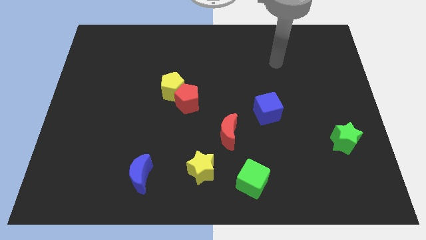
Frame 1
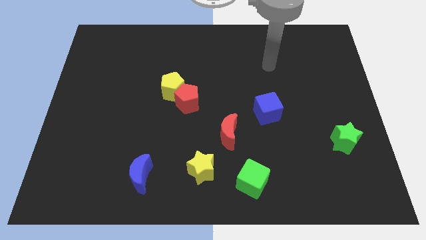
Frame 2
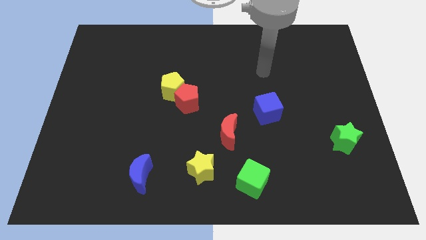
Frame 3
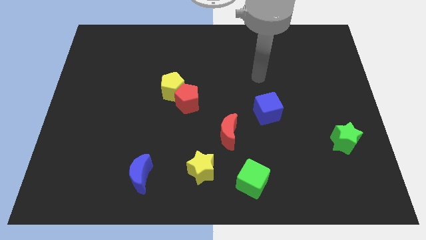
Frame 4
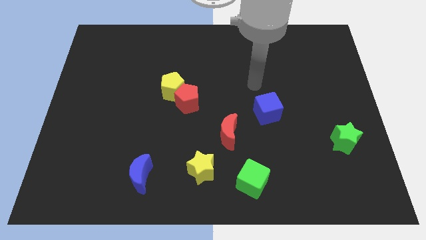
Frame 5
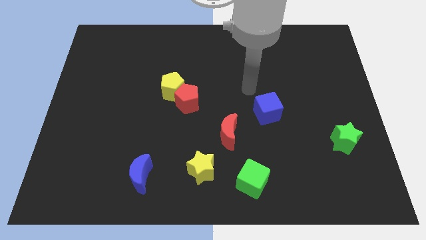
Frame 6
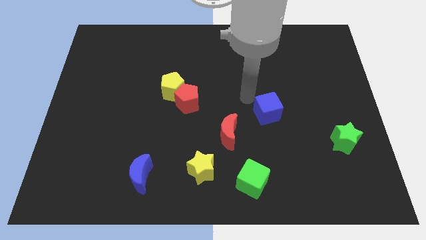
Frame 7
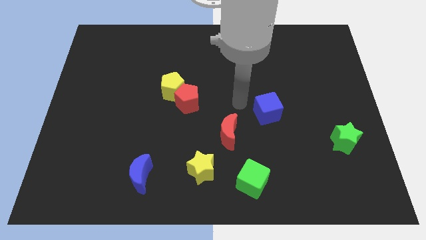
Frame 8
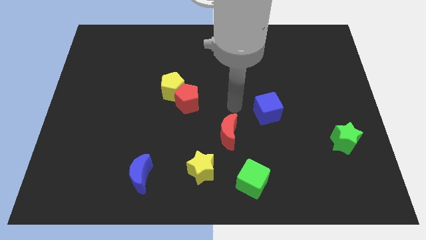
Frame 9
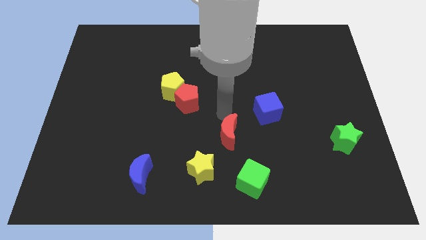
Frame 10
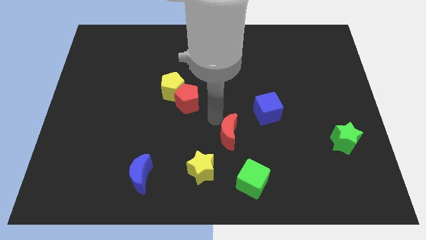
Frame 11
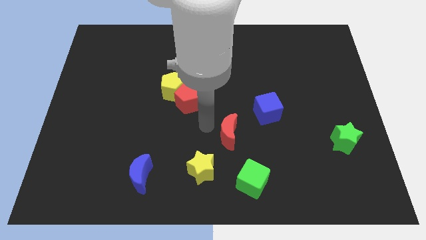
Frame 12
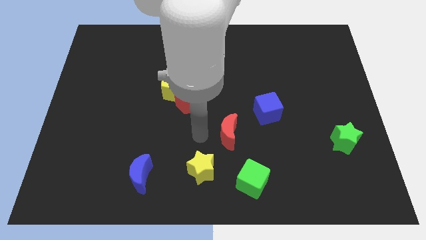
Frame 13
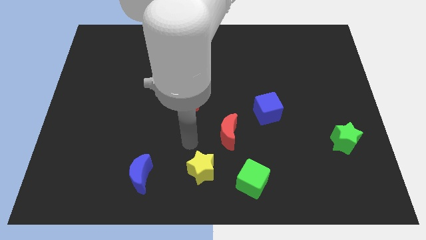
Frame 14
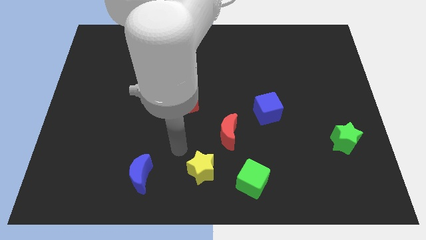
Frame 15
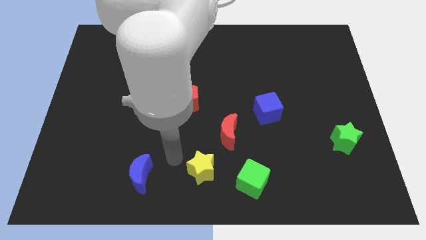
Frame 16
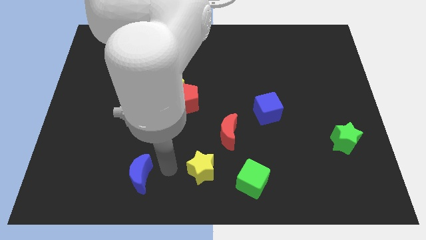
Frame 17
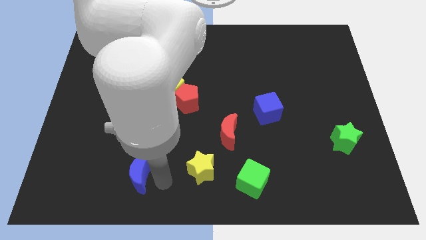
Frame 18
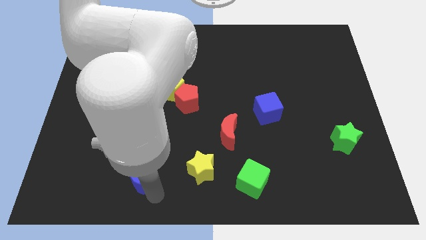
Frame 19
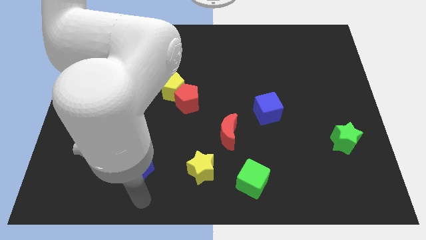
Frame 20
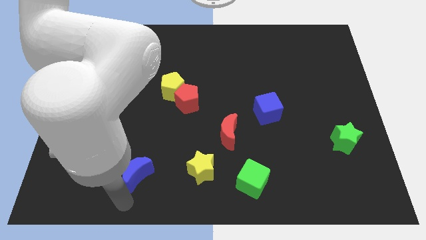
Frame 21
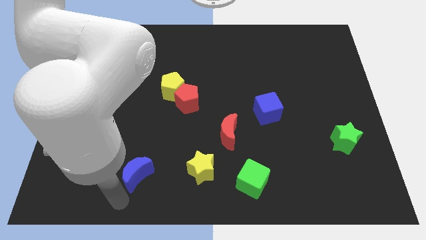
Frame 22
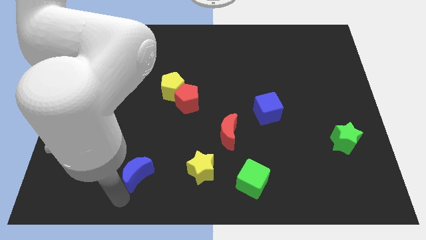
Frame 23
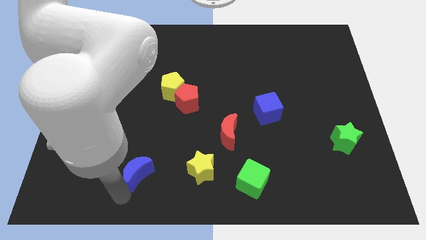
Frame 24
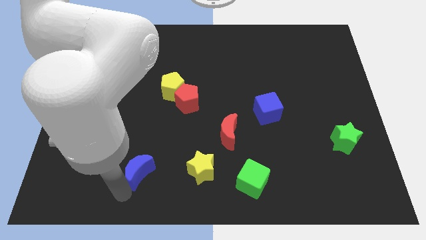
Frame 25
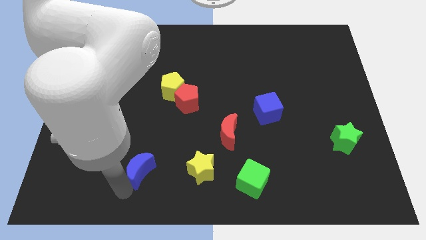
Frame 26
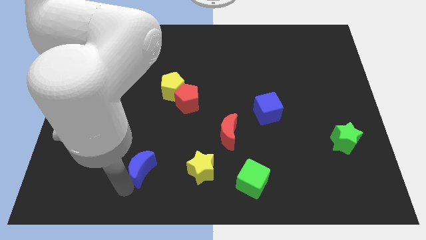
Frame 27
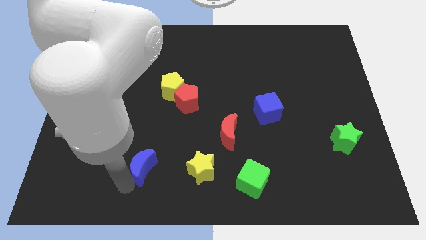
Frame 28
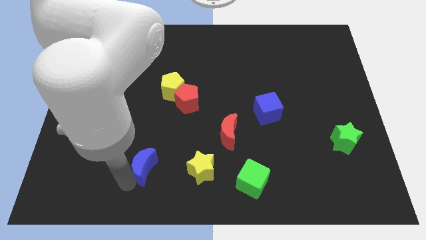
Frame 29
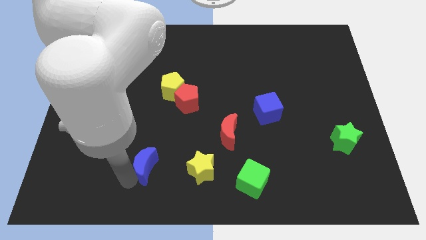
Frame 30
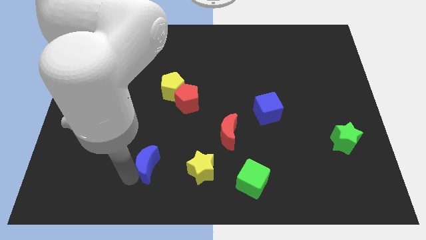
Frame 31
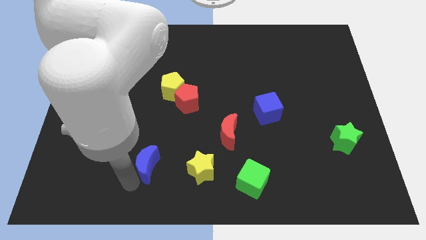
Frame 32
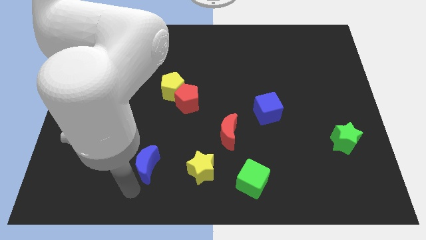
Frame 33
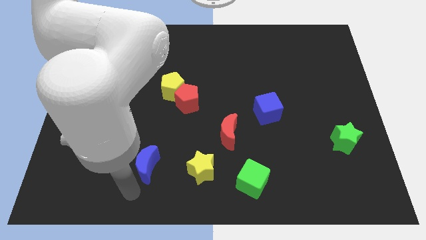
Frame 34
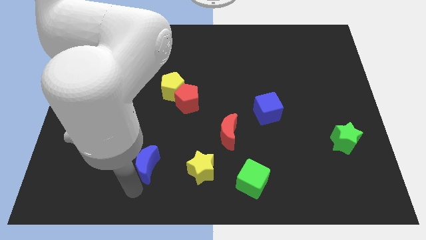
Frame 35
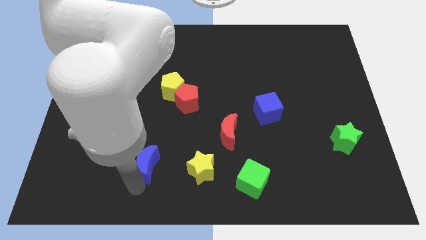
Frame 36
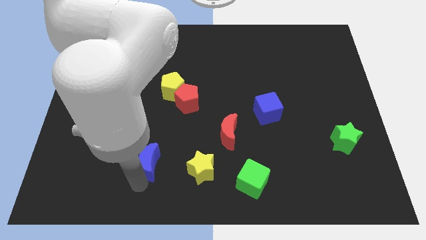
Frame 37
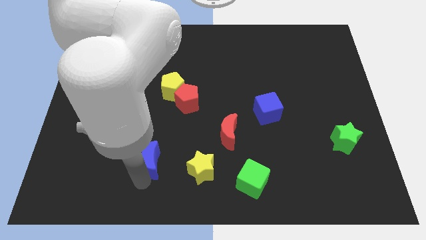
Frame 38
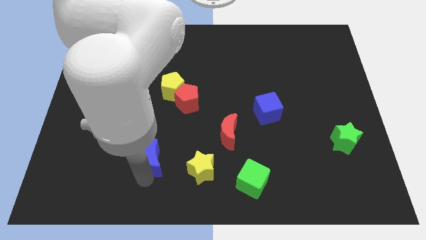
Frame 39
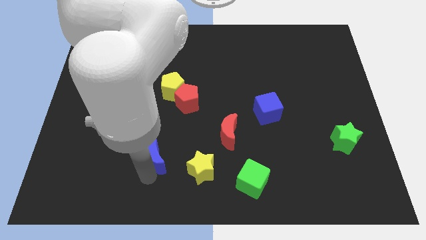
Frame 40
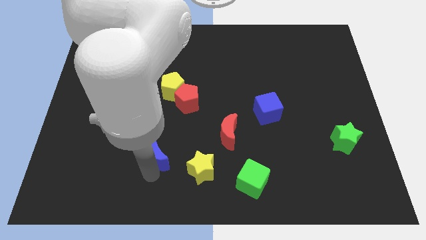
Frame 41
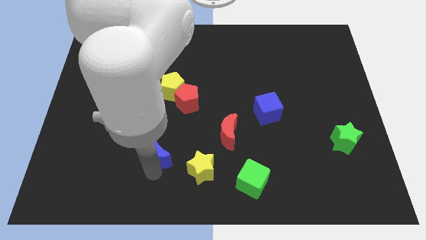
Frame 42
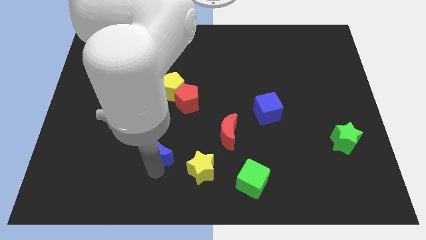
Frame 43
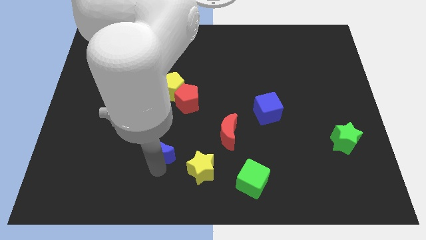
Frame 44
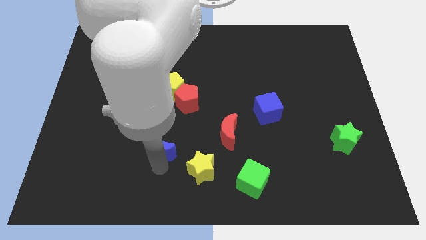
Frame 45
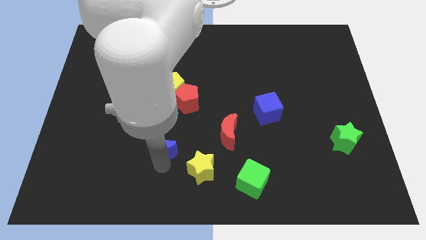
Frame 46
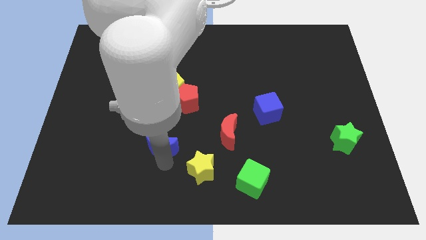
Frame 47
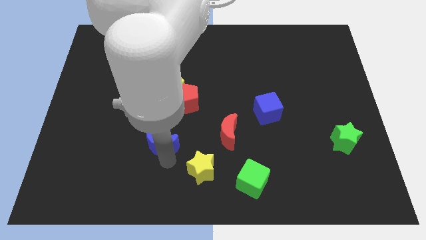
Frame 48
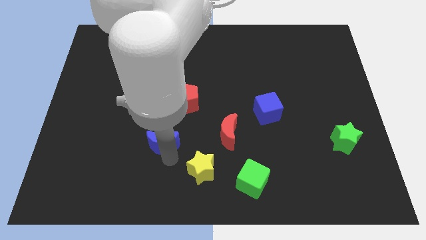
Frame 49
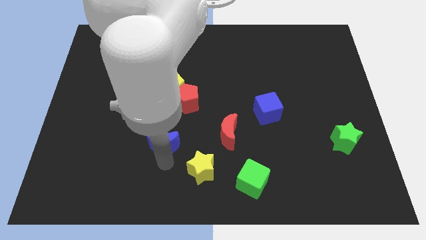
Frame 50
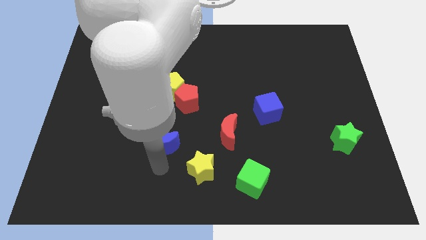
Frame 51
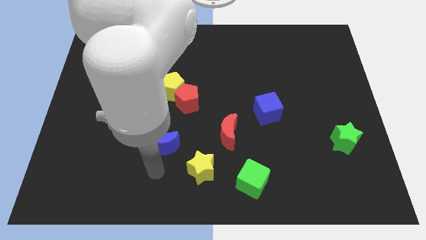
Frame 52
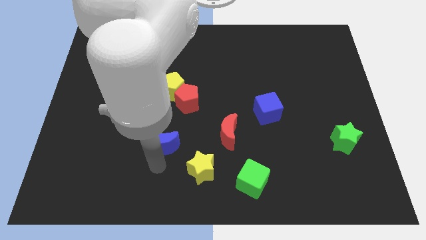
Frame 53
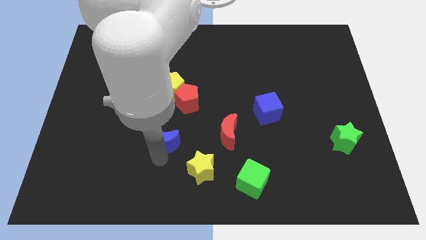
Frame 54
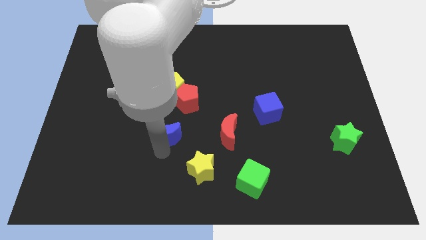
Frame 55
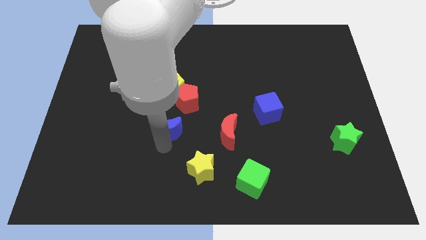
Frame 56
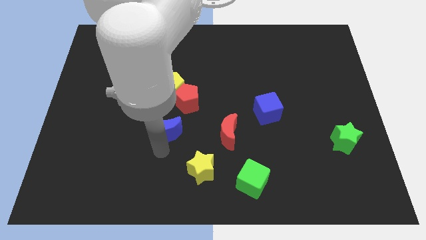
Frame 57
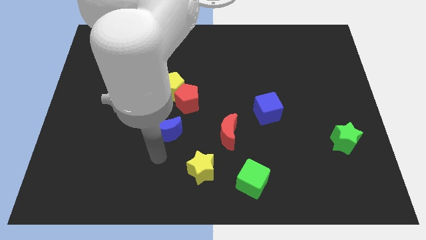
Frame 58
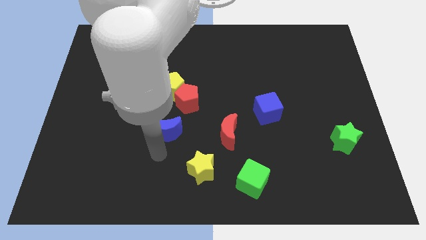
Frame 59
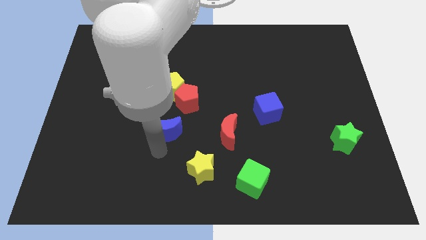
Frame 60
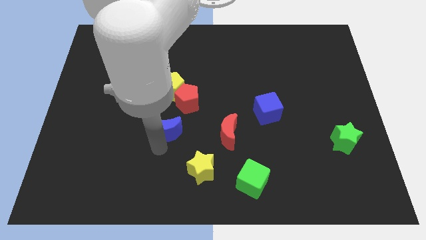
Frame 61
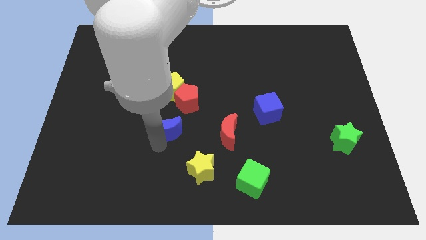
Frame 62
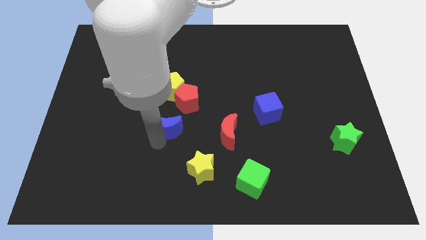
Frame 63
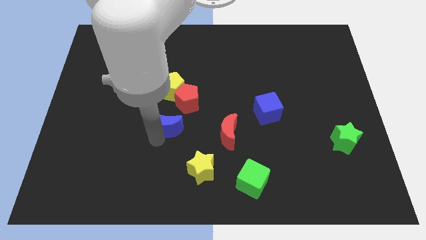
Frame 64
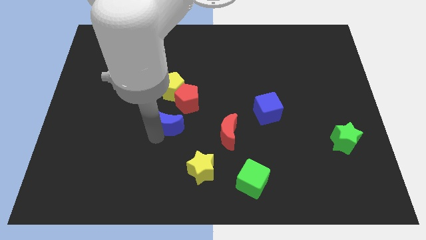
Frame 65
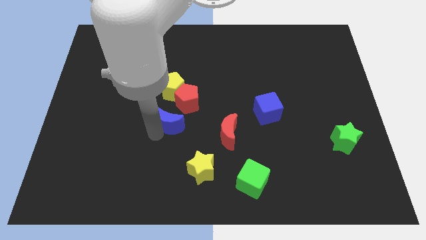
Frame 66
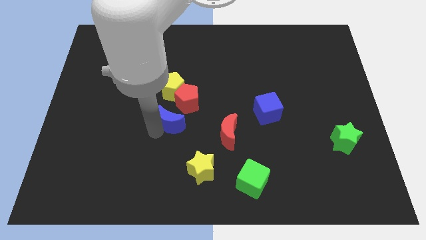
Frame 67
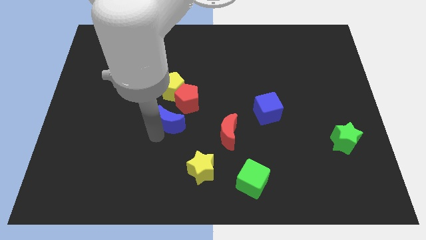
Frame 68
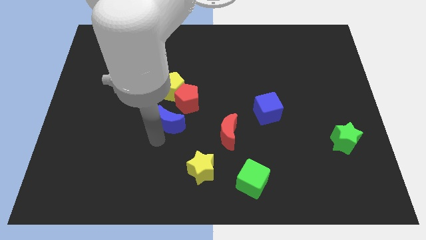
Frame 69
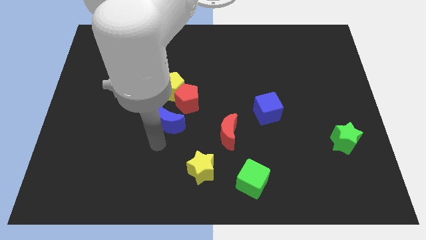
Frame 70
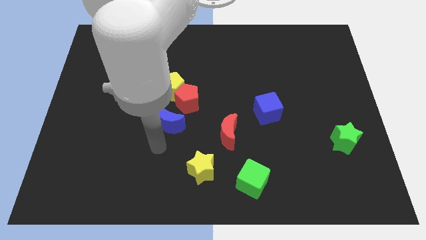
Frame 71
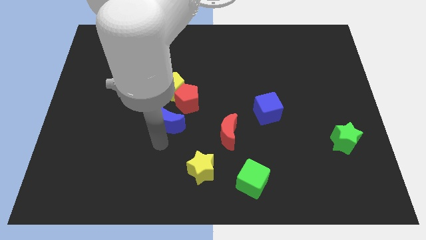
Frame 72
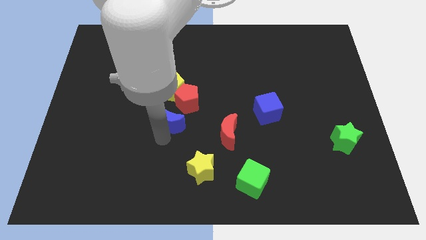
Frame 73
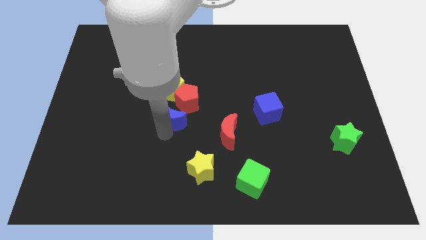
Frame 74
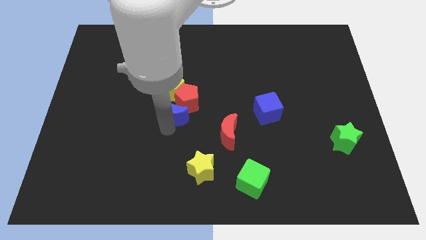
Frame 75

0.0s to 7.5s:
push the blue moon next to the red pentagon
